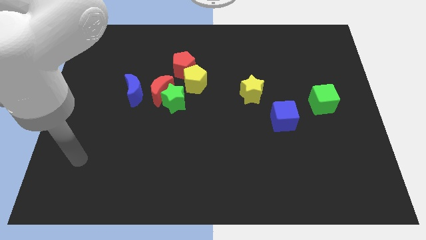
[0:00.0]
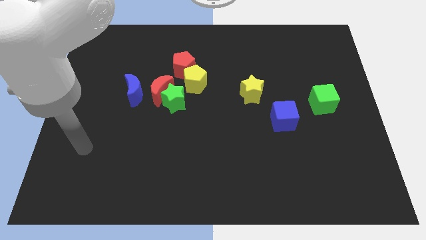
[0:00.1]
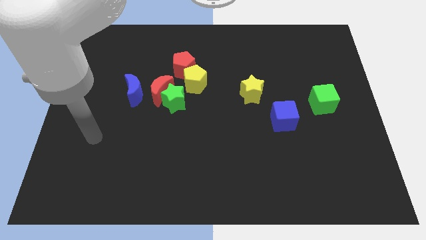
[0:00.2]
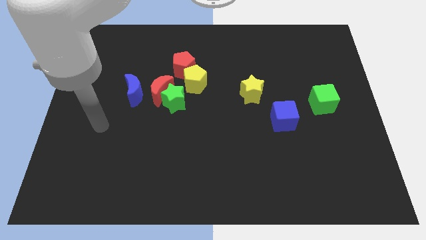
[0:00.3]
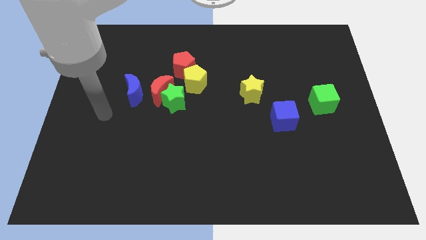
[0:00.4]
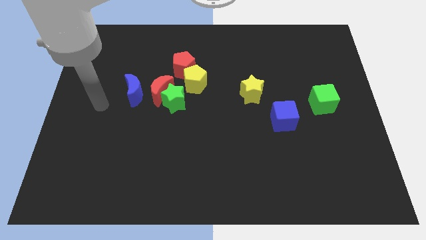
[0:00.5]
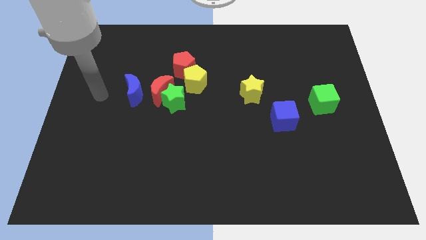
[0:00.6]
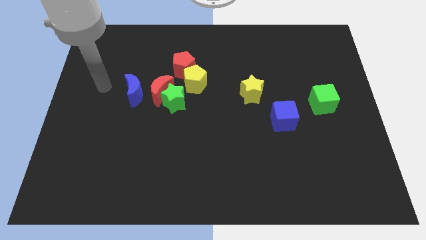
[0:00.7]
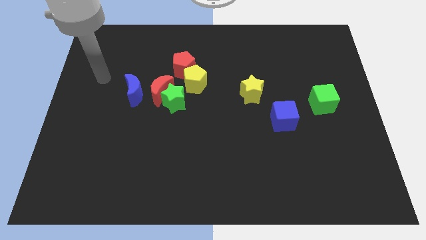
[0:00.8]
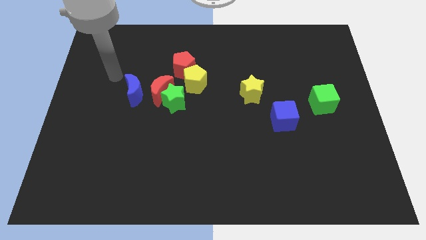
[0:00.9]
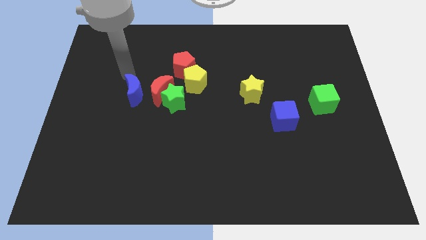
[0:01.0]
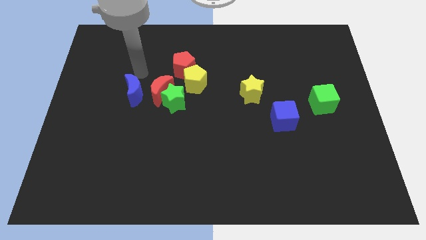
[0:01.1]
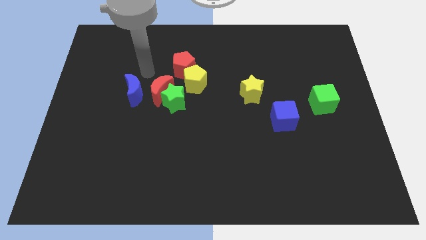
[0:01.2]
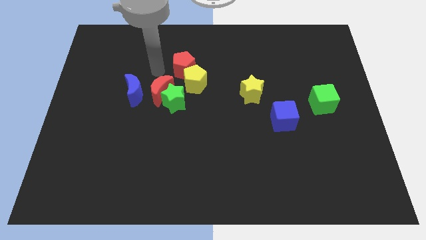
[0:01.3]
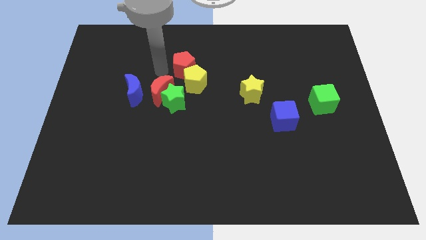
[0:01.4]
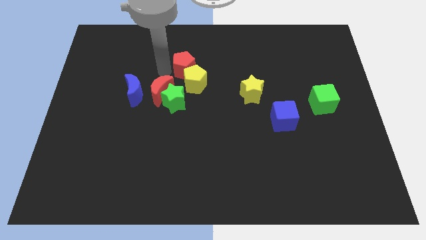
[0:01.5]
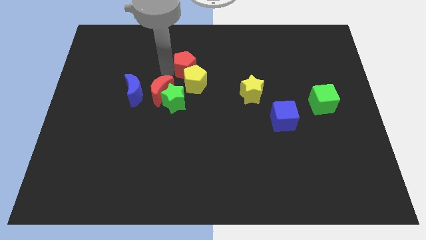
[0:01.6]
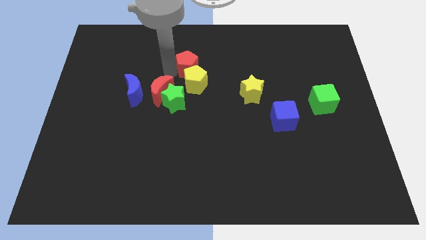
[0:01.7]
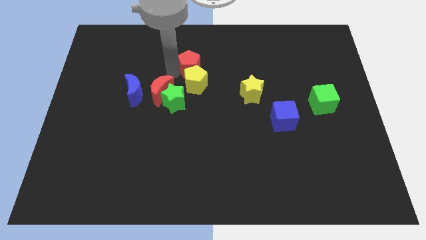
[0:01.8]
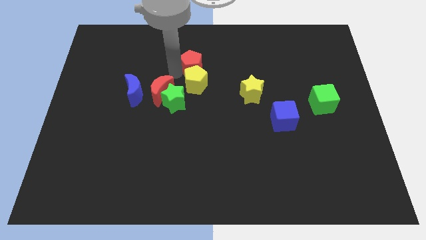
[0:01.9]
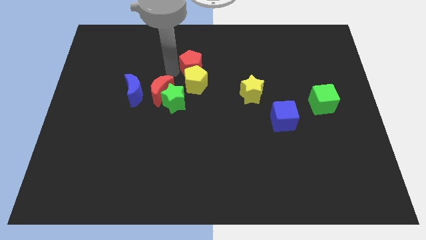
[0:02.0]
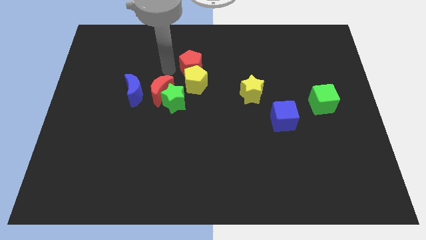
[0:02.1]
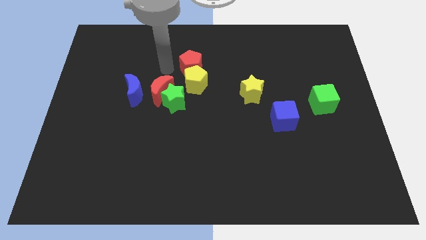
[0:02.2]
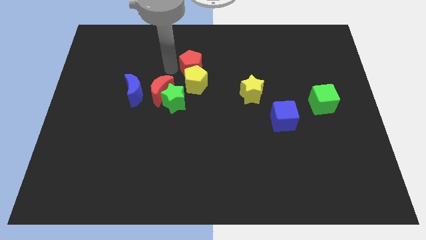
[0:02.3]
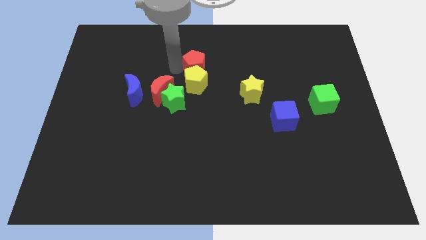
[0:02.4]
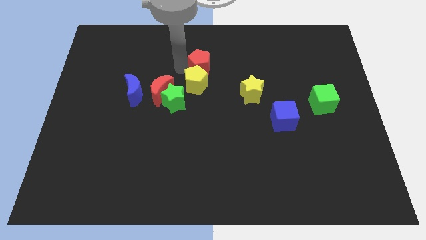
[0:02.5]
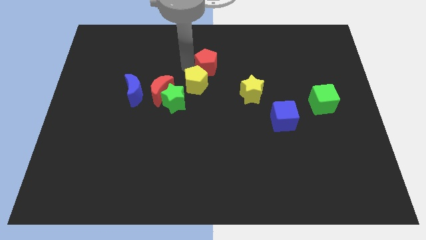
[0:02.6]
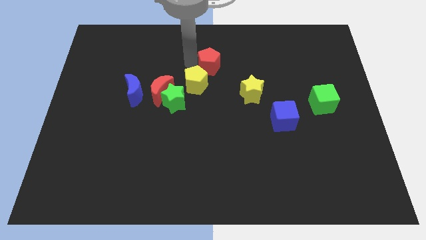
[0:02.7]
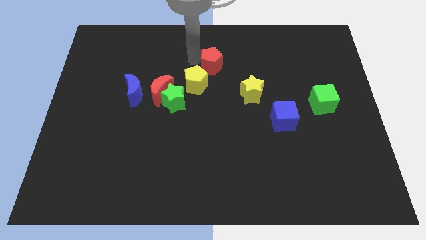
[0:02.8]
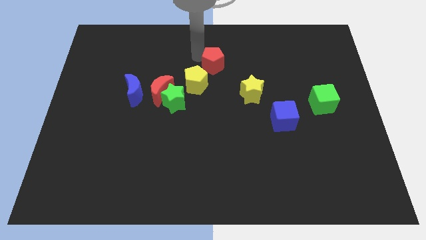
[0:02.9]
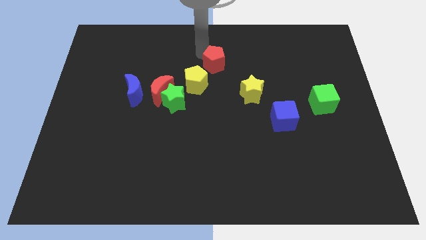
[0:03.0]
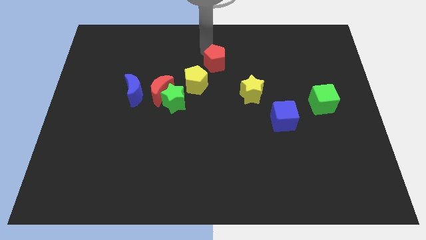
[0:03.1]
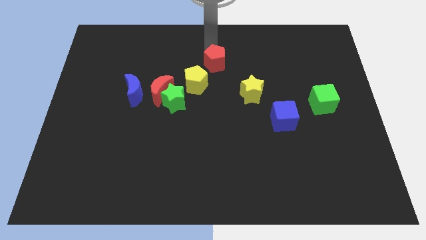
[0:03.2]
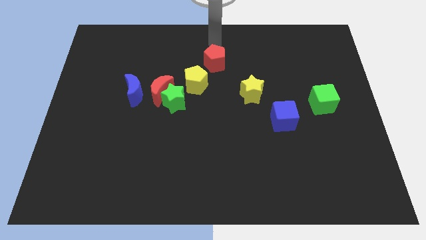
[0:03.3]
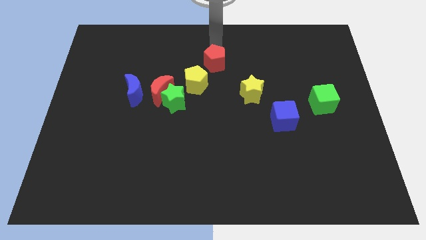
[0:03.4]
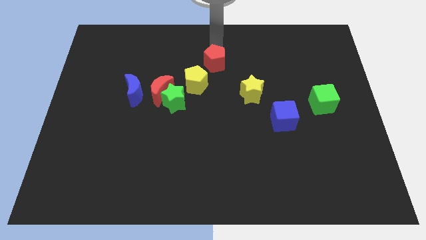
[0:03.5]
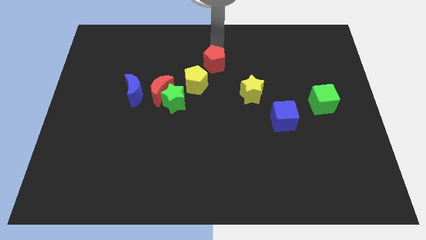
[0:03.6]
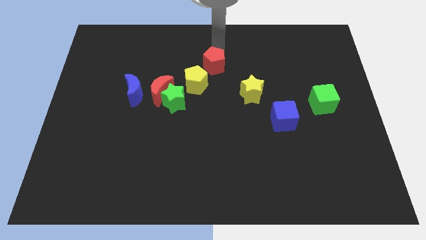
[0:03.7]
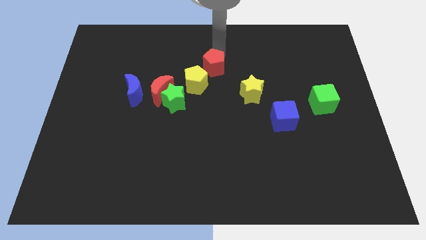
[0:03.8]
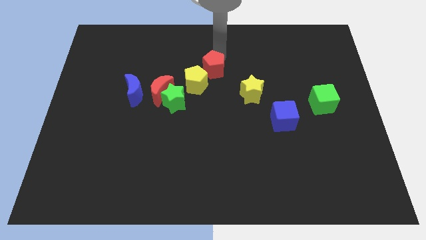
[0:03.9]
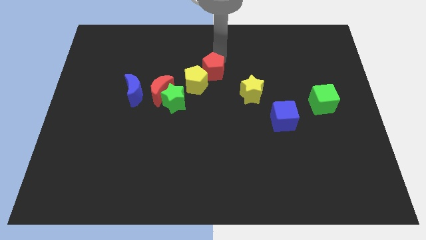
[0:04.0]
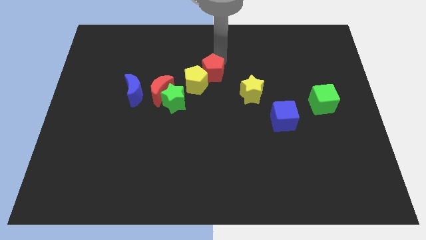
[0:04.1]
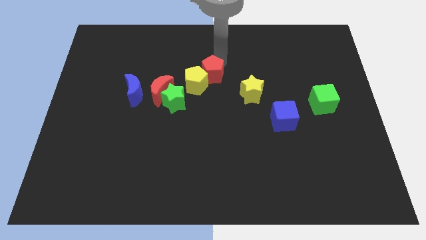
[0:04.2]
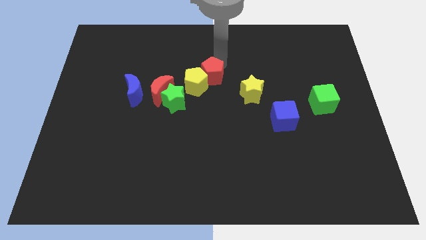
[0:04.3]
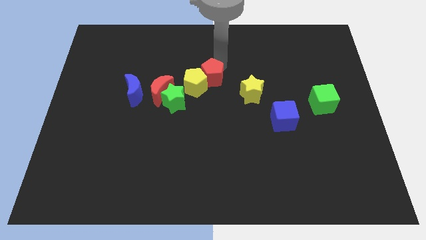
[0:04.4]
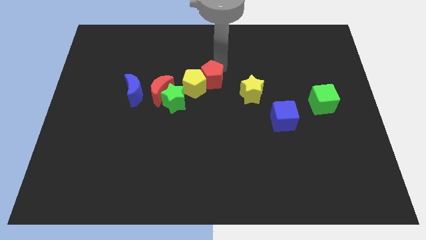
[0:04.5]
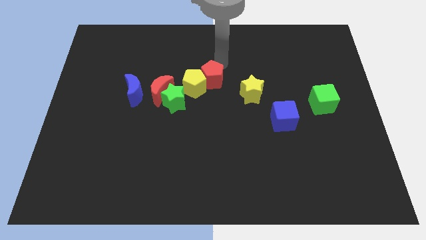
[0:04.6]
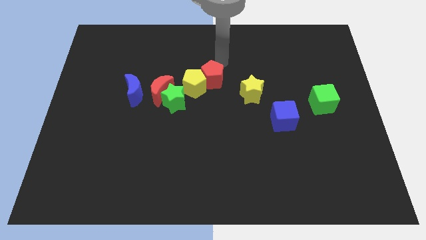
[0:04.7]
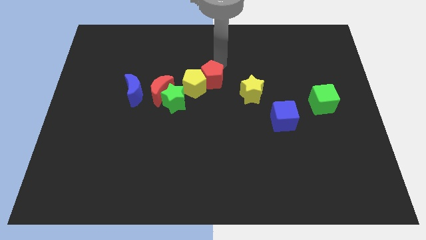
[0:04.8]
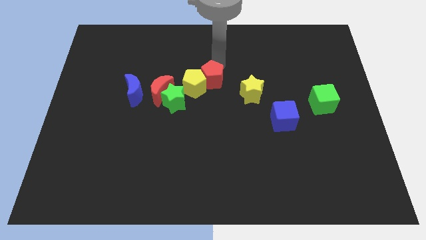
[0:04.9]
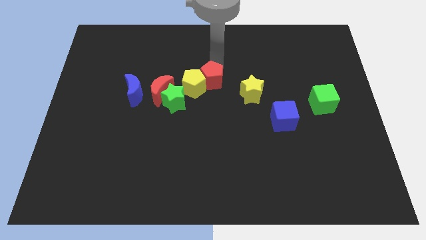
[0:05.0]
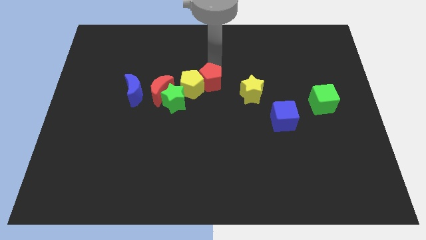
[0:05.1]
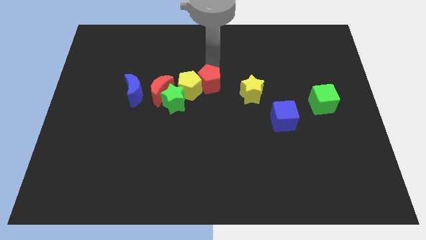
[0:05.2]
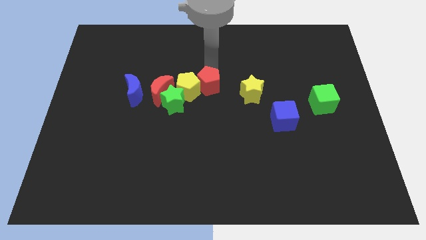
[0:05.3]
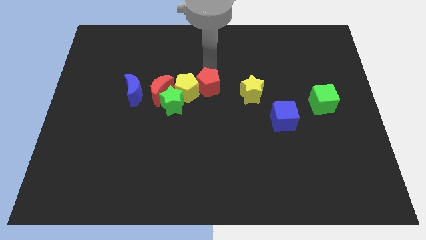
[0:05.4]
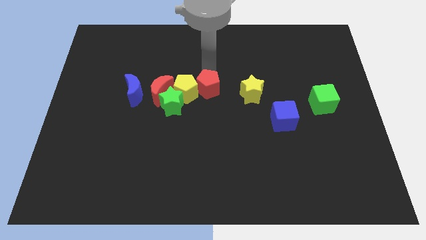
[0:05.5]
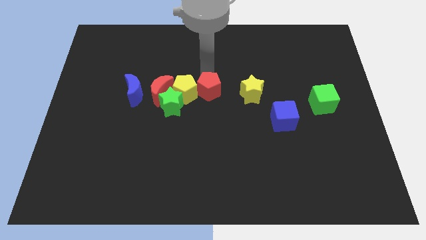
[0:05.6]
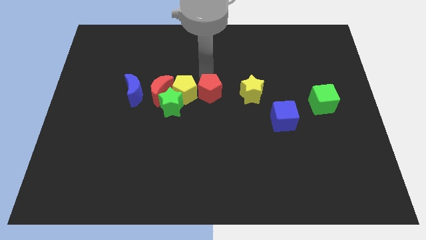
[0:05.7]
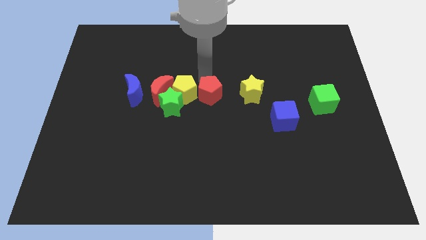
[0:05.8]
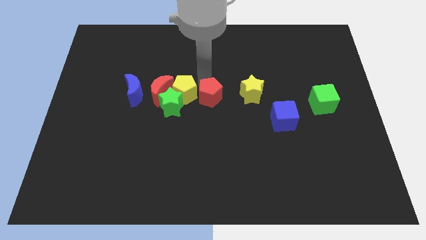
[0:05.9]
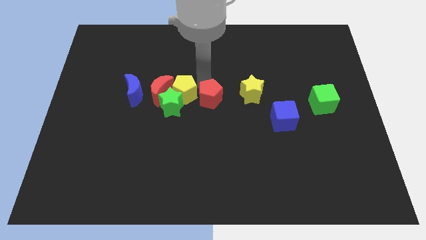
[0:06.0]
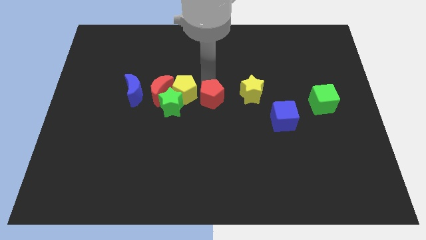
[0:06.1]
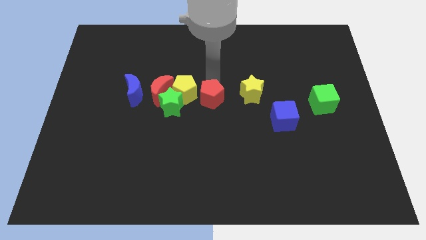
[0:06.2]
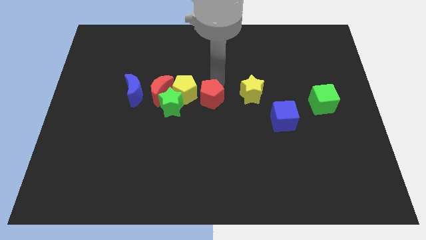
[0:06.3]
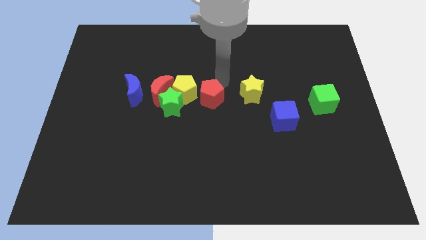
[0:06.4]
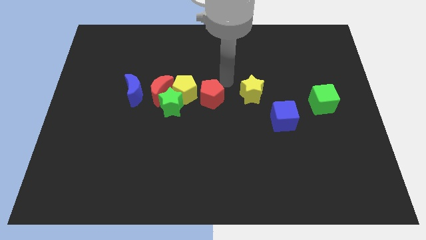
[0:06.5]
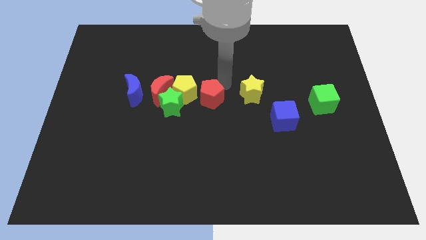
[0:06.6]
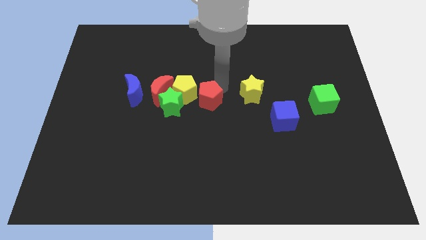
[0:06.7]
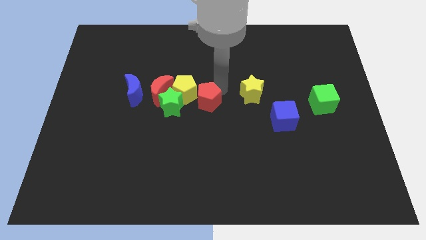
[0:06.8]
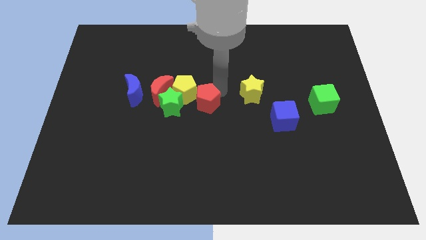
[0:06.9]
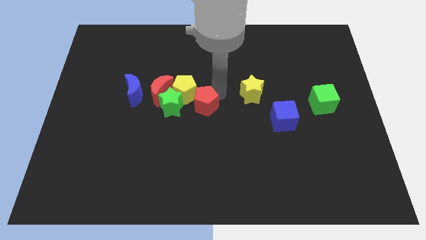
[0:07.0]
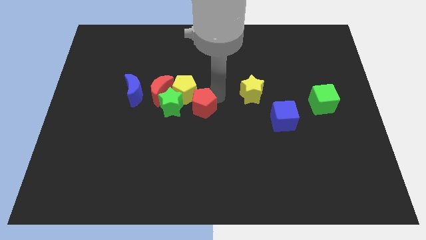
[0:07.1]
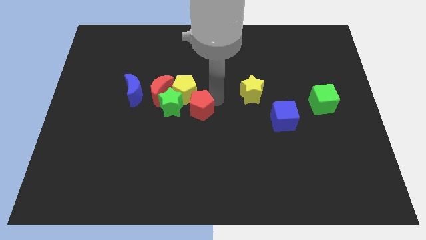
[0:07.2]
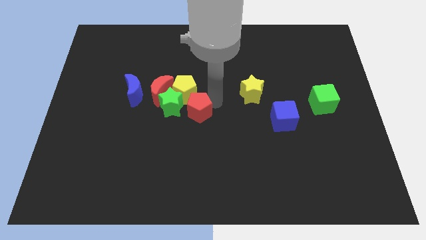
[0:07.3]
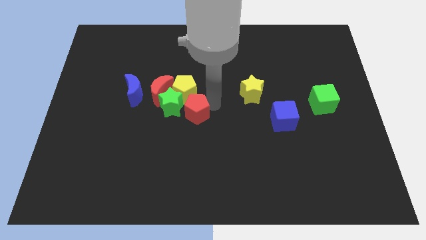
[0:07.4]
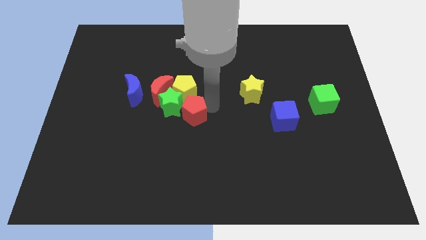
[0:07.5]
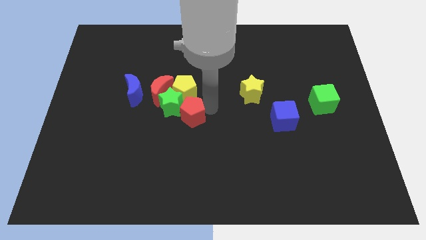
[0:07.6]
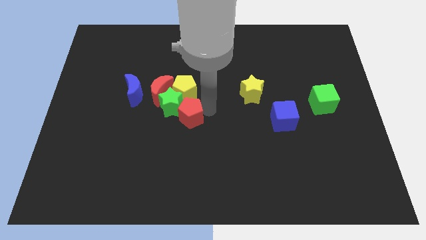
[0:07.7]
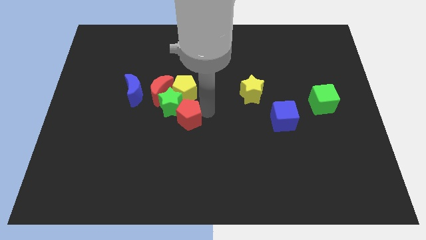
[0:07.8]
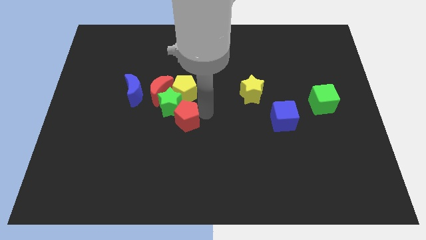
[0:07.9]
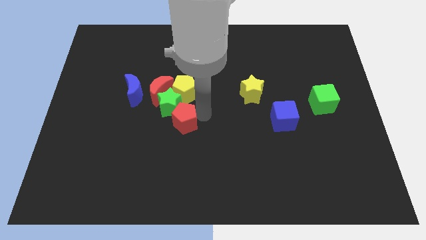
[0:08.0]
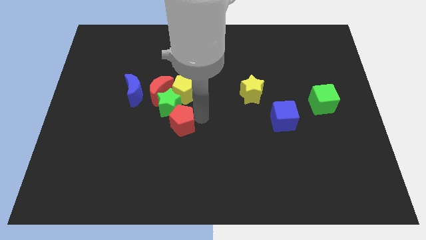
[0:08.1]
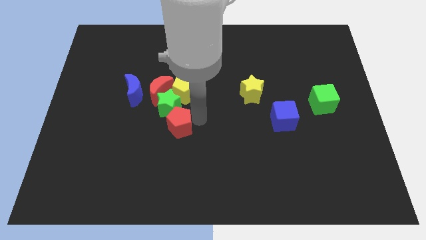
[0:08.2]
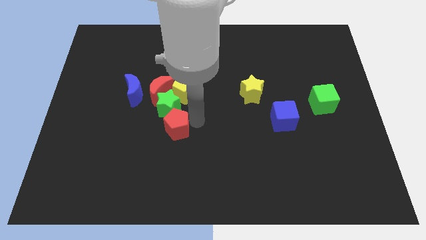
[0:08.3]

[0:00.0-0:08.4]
push the red pentagon to the bottom side of the red moon
